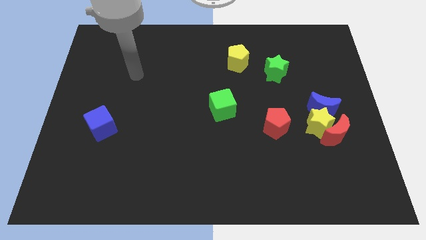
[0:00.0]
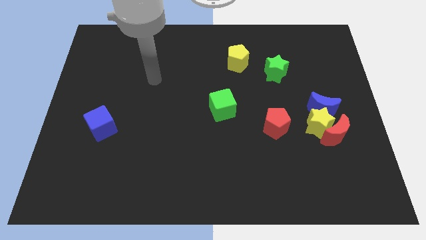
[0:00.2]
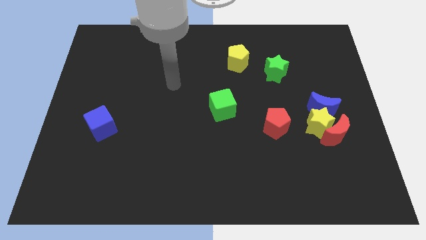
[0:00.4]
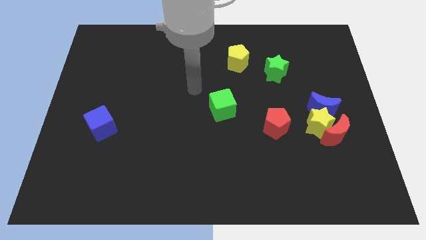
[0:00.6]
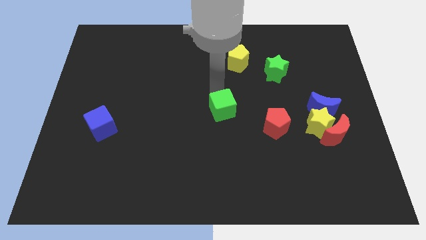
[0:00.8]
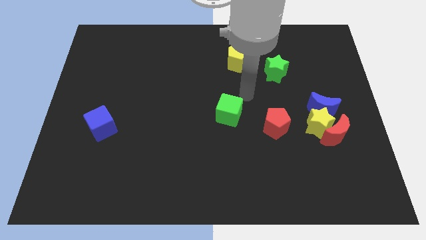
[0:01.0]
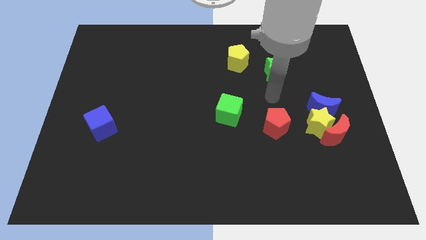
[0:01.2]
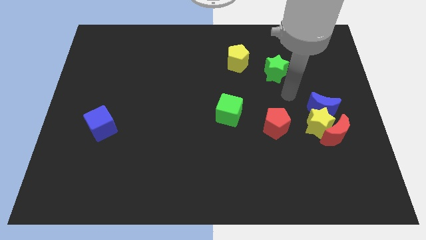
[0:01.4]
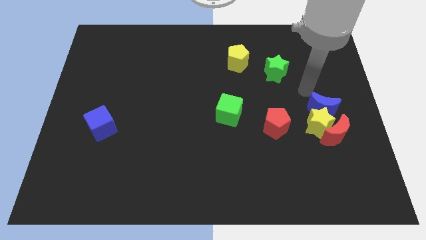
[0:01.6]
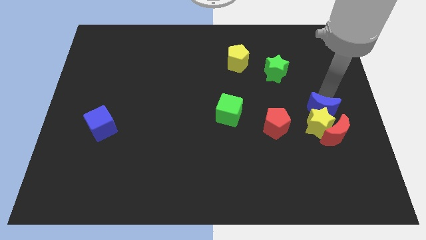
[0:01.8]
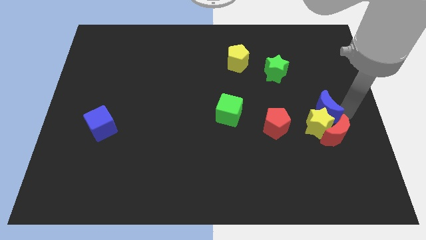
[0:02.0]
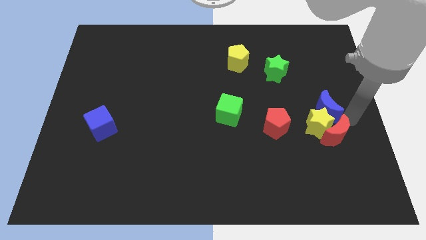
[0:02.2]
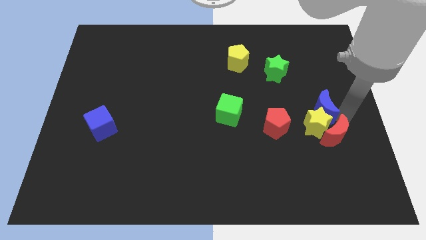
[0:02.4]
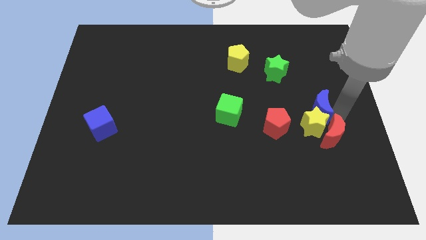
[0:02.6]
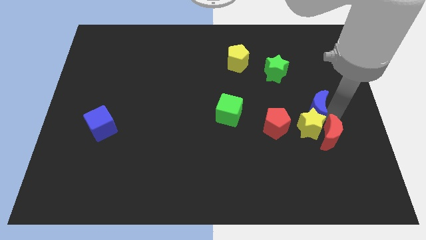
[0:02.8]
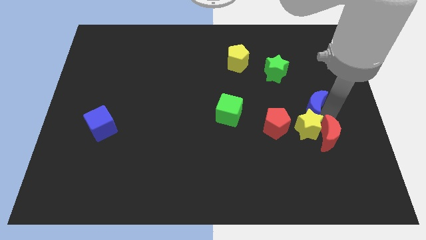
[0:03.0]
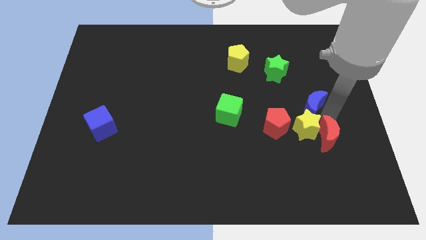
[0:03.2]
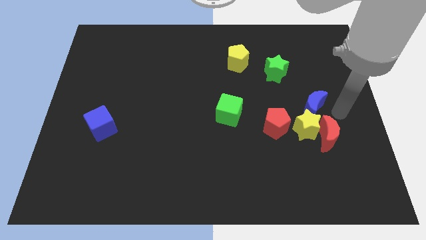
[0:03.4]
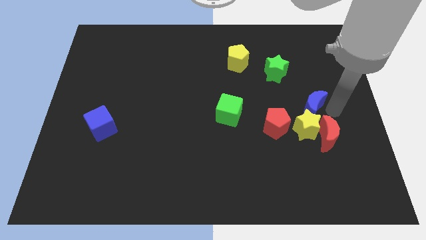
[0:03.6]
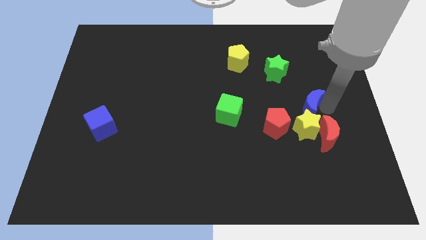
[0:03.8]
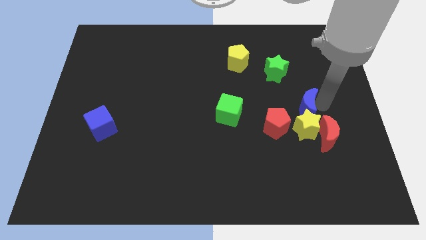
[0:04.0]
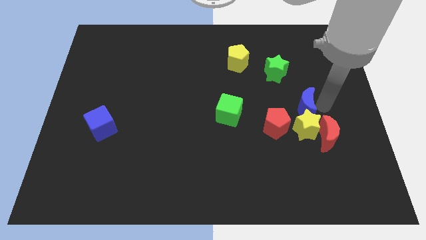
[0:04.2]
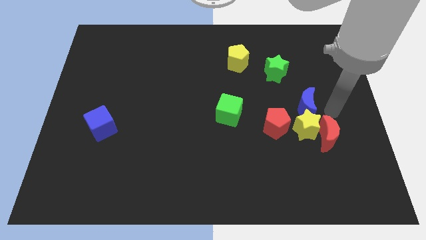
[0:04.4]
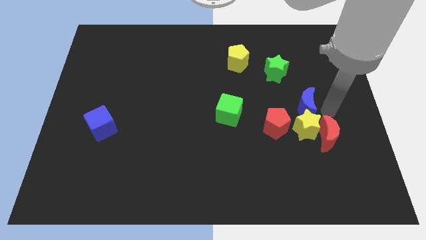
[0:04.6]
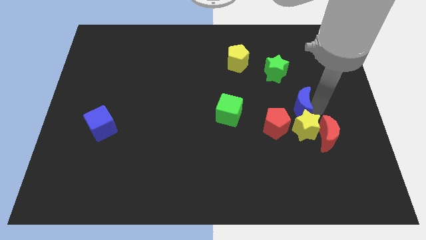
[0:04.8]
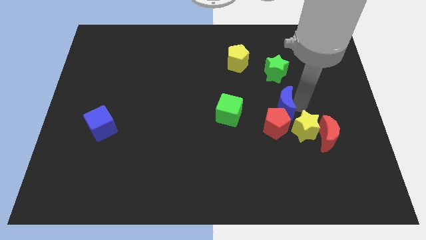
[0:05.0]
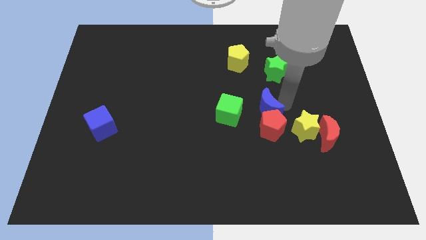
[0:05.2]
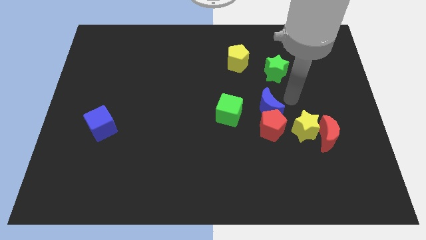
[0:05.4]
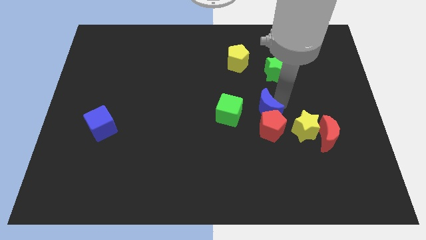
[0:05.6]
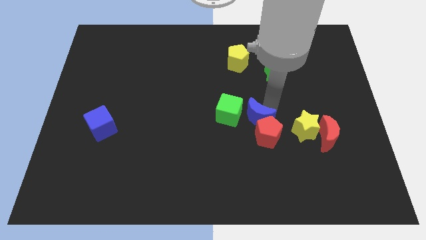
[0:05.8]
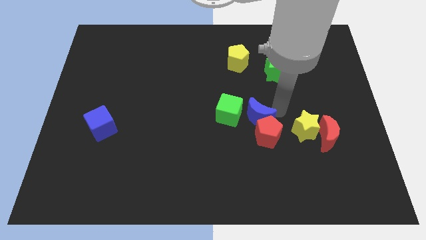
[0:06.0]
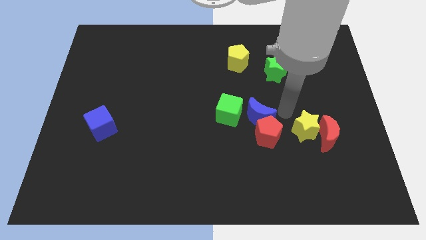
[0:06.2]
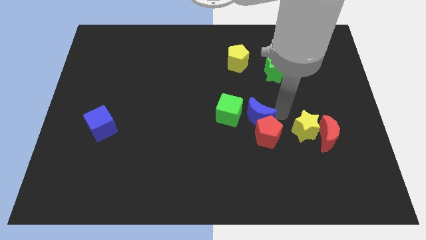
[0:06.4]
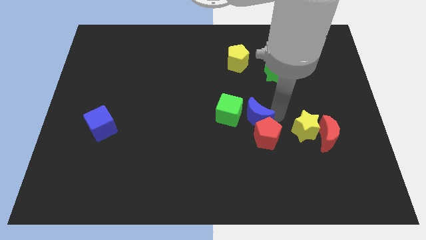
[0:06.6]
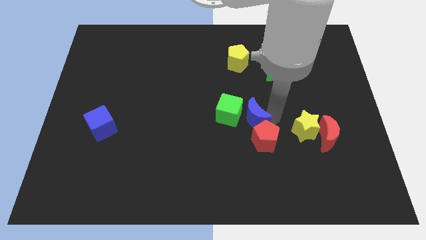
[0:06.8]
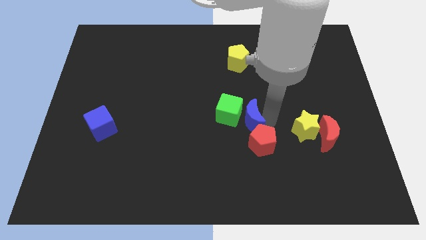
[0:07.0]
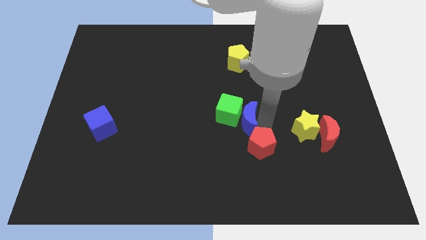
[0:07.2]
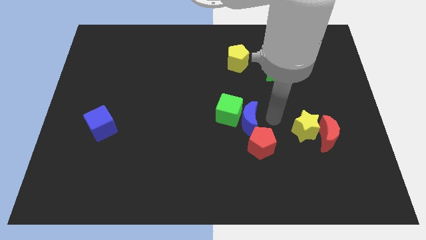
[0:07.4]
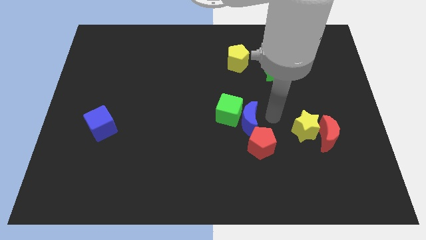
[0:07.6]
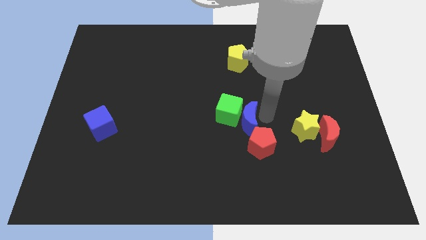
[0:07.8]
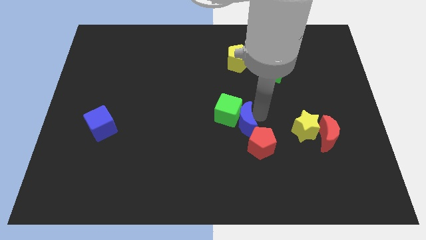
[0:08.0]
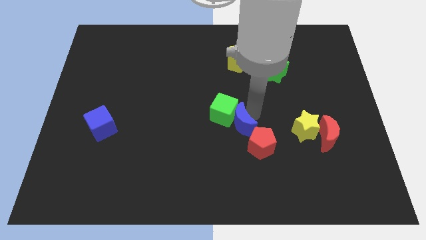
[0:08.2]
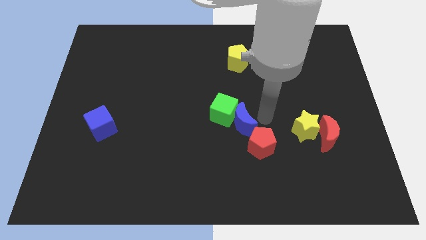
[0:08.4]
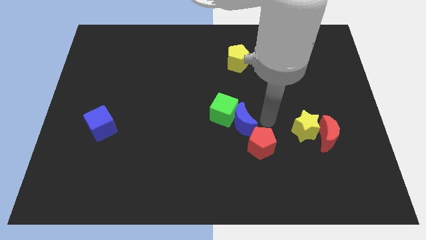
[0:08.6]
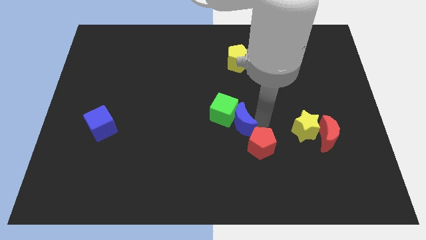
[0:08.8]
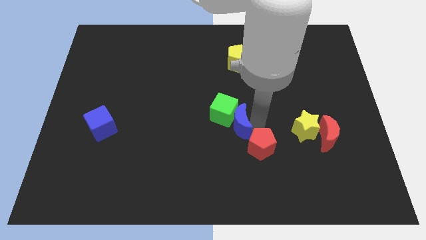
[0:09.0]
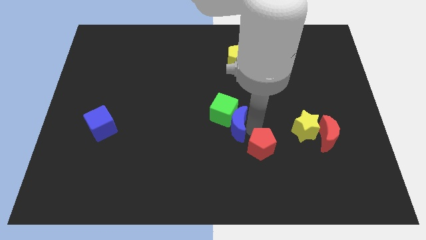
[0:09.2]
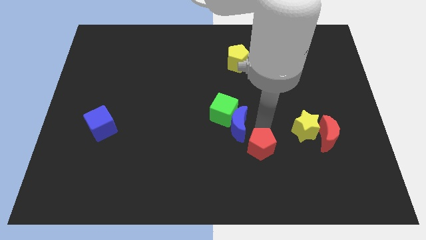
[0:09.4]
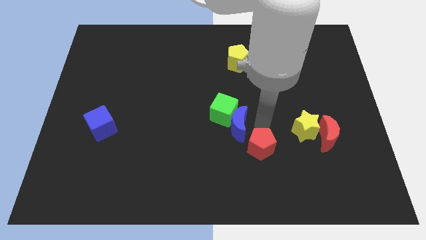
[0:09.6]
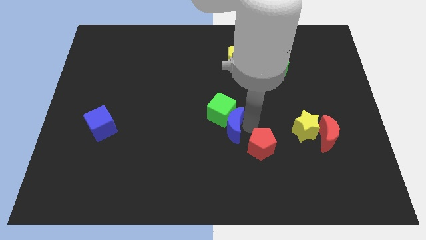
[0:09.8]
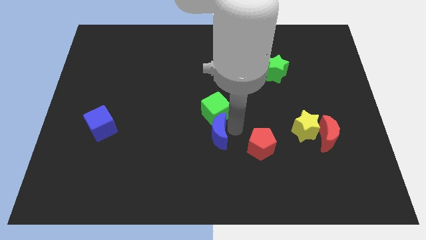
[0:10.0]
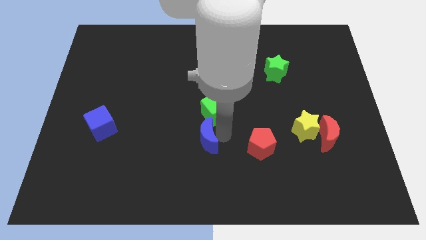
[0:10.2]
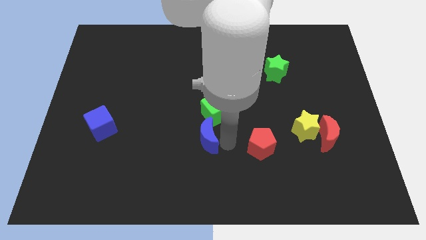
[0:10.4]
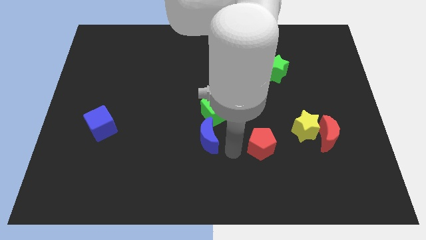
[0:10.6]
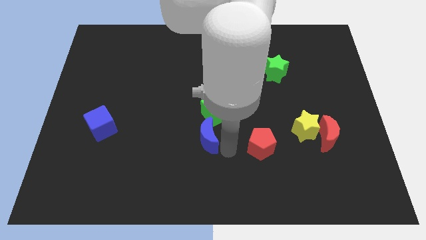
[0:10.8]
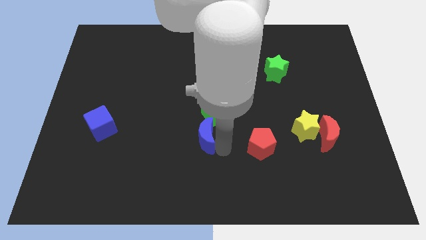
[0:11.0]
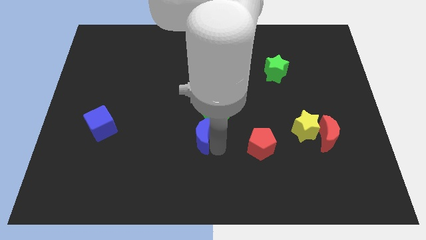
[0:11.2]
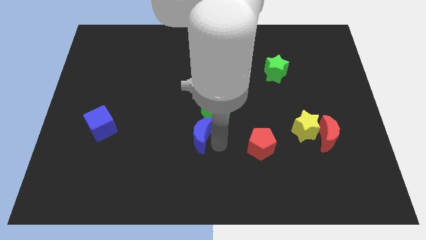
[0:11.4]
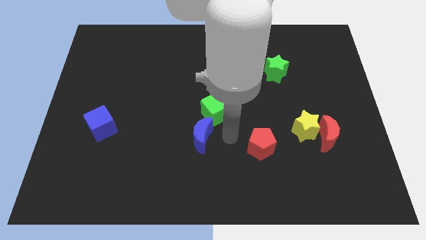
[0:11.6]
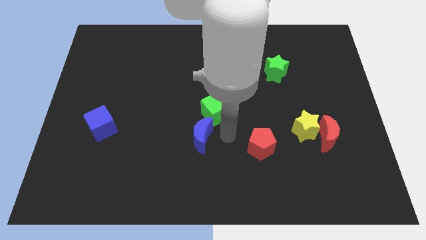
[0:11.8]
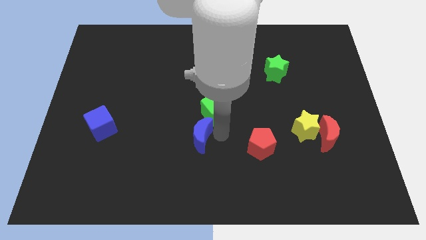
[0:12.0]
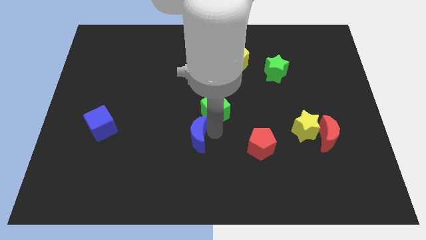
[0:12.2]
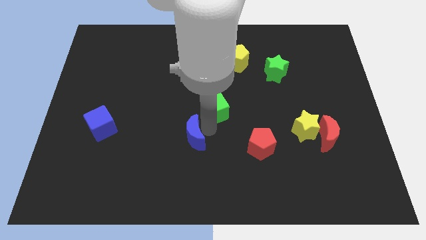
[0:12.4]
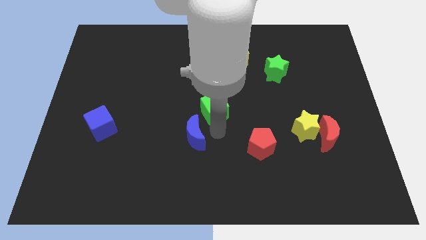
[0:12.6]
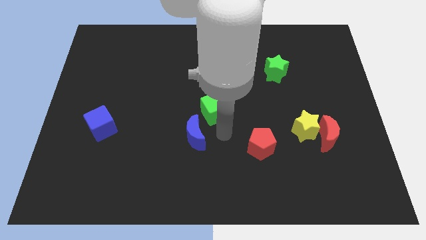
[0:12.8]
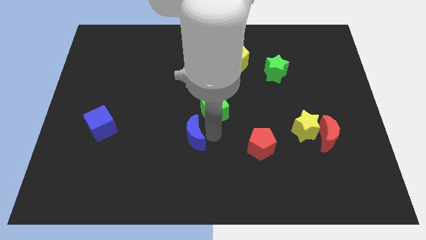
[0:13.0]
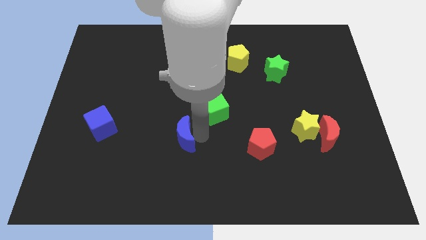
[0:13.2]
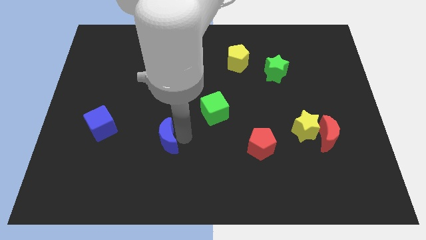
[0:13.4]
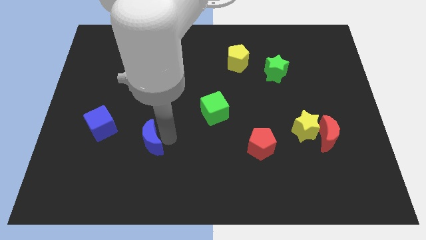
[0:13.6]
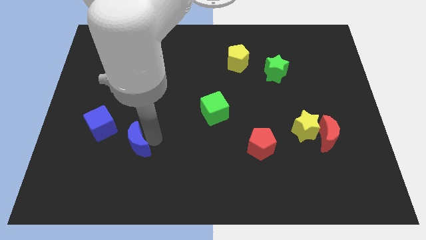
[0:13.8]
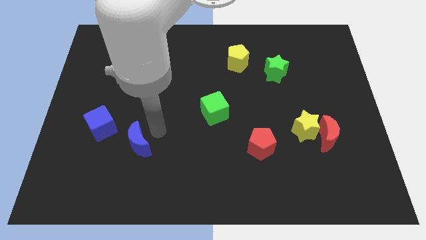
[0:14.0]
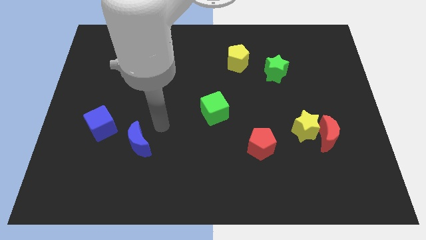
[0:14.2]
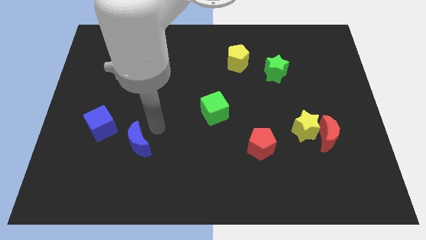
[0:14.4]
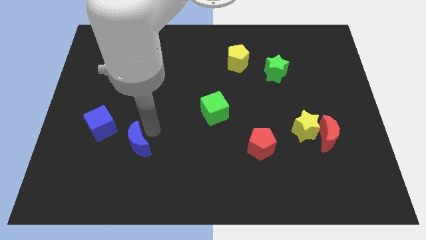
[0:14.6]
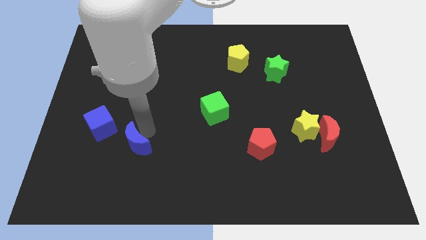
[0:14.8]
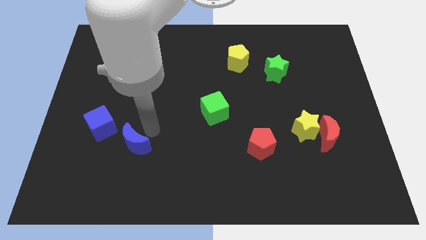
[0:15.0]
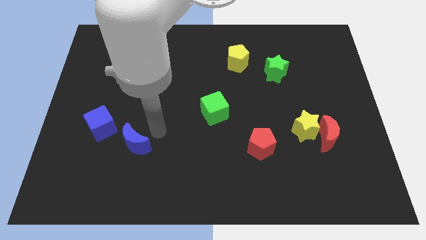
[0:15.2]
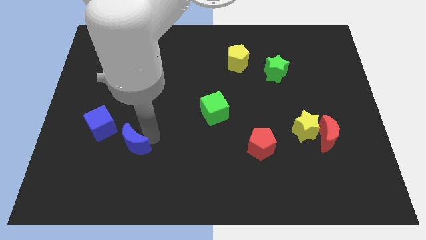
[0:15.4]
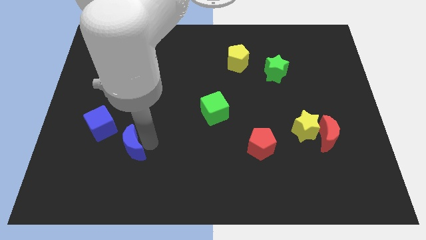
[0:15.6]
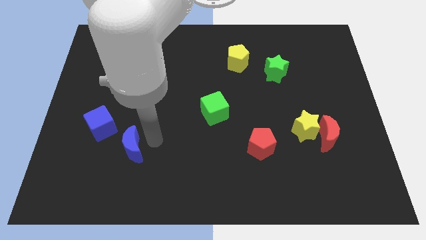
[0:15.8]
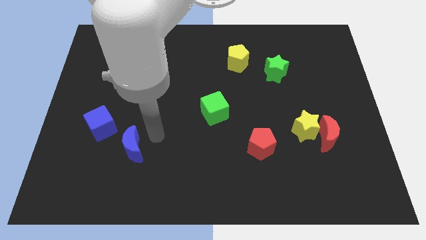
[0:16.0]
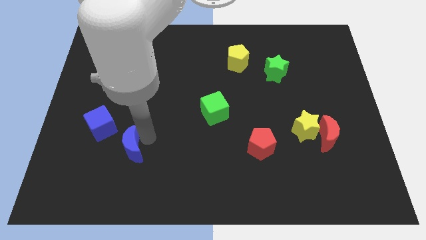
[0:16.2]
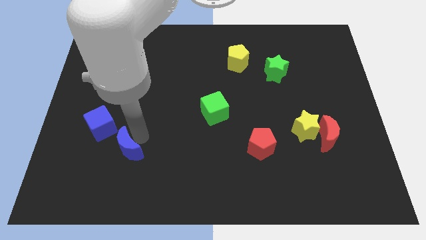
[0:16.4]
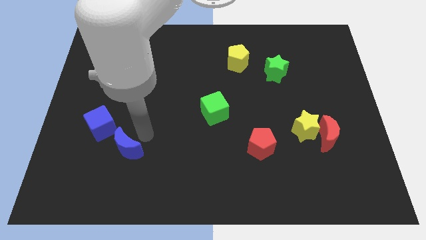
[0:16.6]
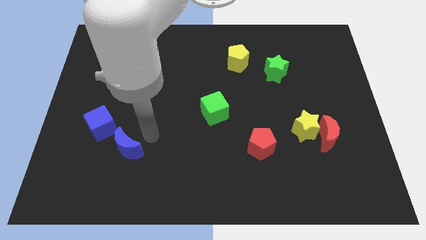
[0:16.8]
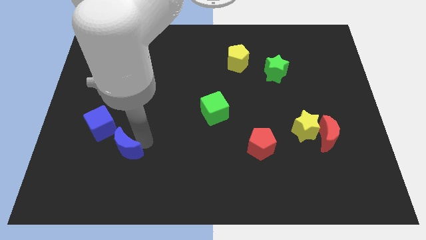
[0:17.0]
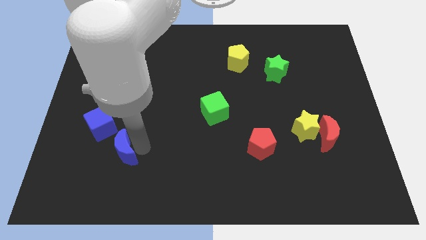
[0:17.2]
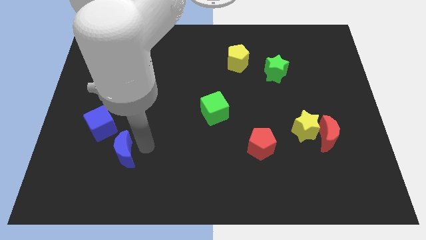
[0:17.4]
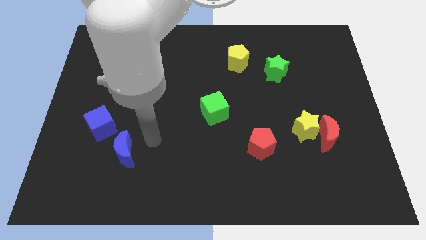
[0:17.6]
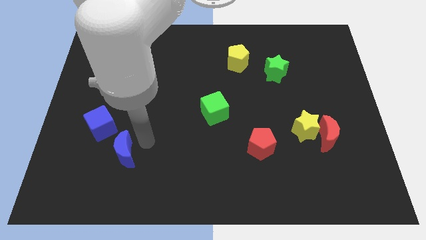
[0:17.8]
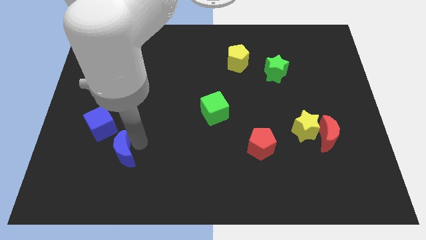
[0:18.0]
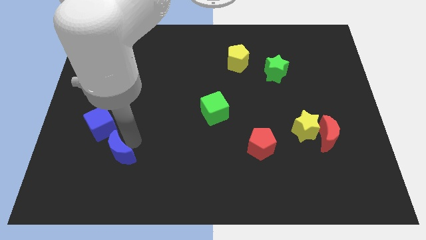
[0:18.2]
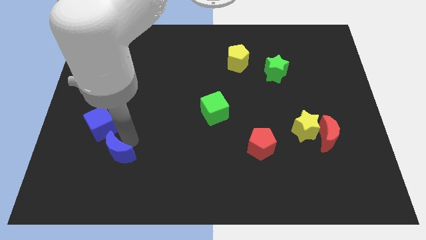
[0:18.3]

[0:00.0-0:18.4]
put the blue moon below the blue cube
